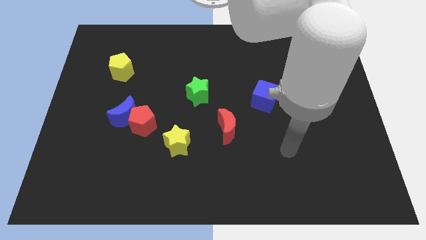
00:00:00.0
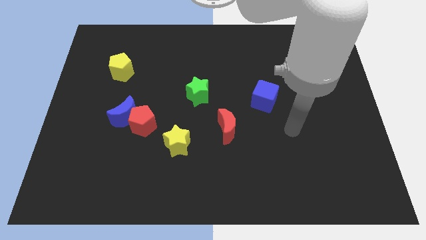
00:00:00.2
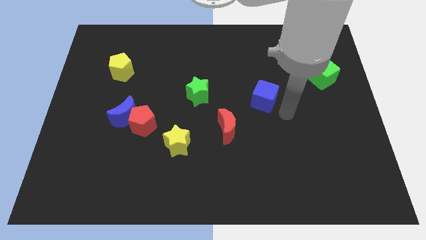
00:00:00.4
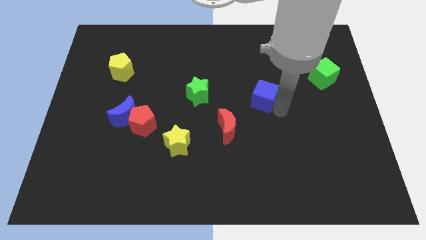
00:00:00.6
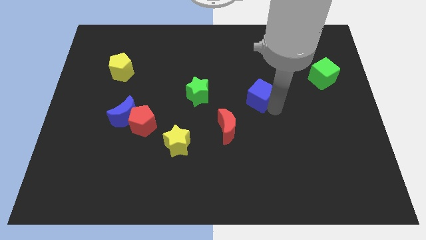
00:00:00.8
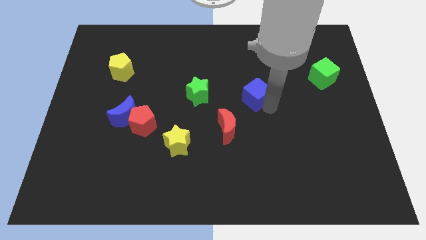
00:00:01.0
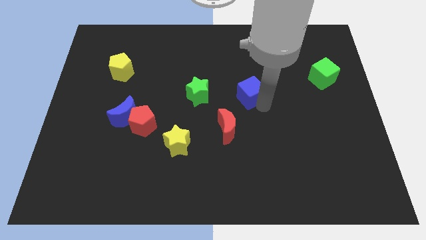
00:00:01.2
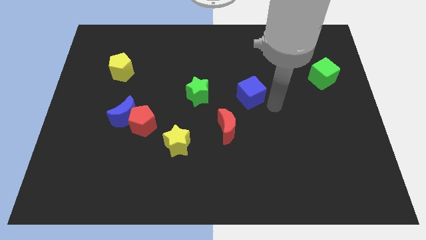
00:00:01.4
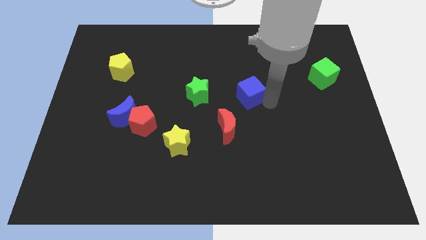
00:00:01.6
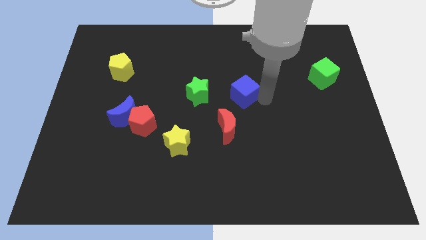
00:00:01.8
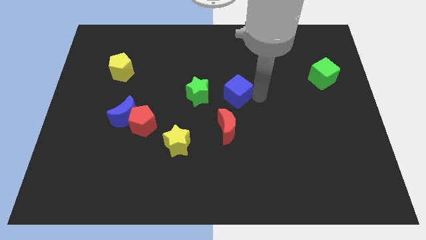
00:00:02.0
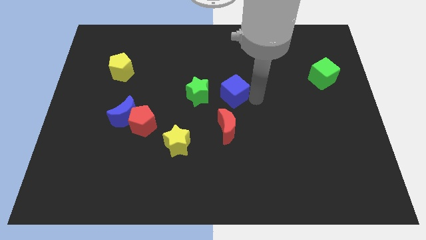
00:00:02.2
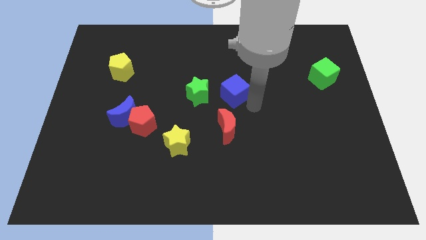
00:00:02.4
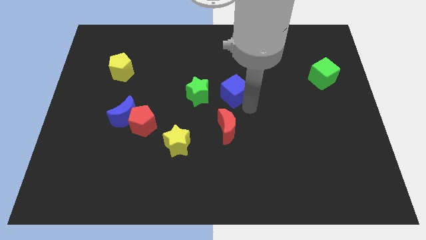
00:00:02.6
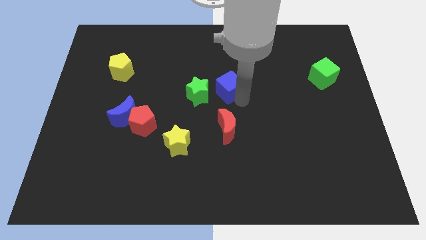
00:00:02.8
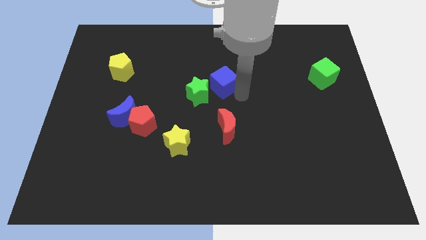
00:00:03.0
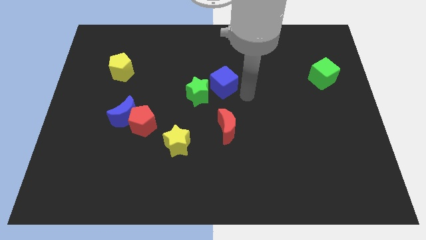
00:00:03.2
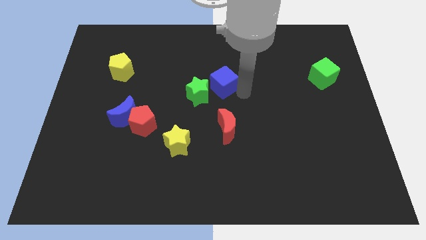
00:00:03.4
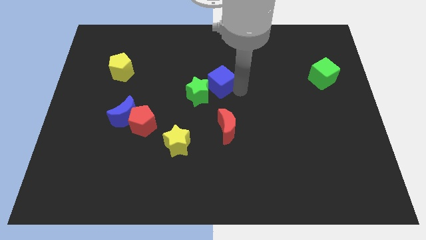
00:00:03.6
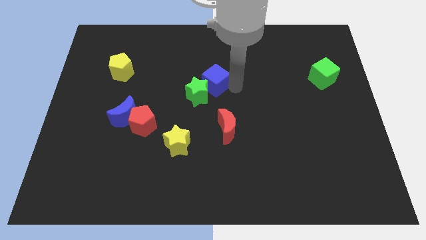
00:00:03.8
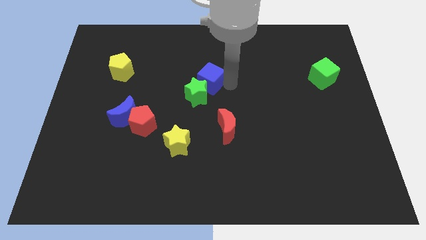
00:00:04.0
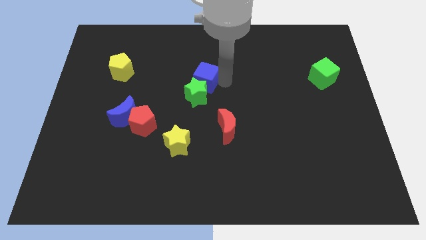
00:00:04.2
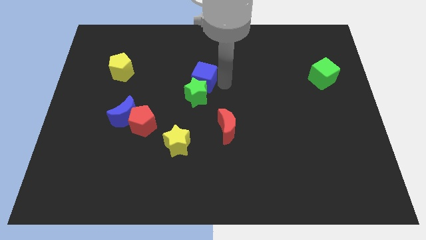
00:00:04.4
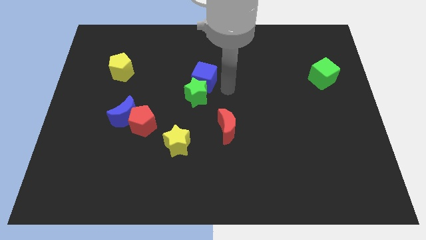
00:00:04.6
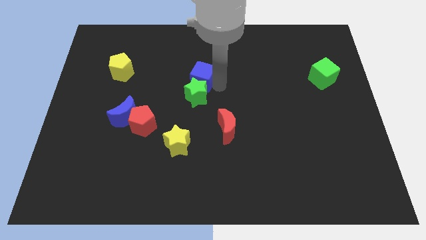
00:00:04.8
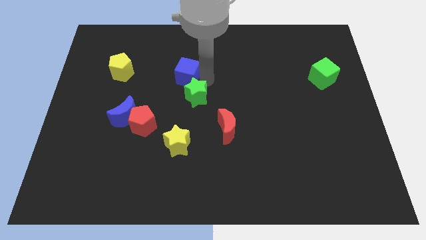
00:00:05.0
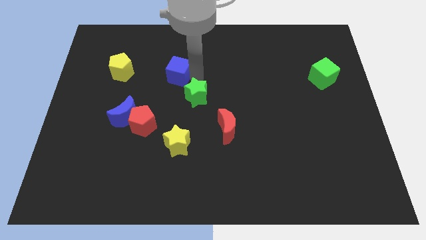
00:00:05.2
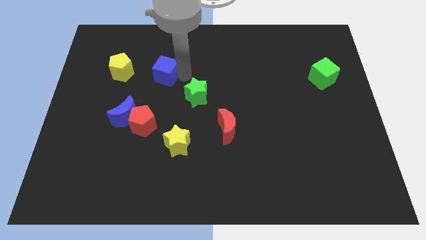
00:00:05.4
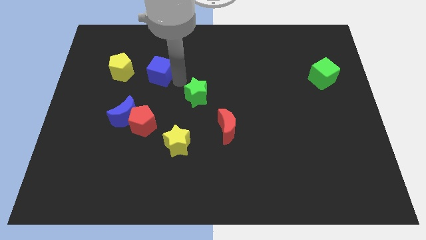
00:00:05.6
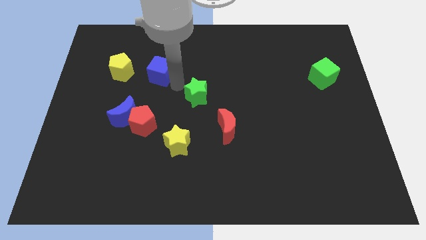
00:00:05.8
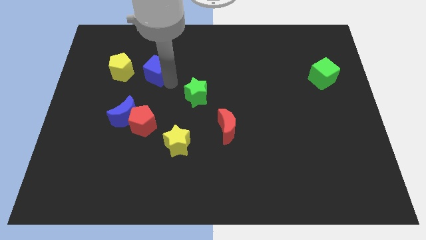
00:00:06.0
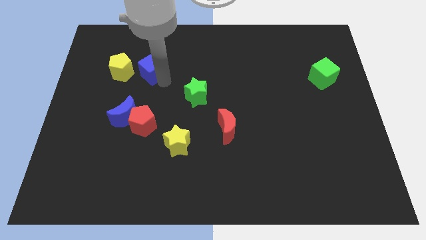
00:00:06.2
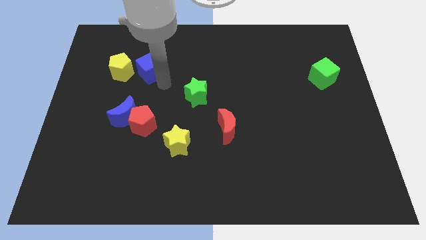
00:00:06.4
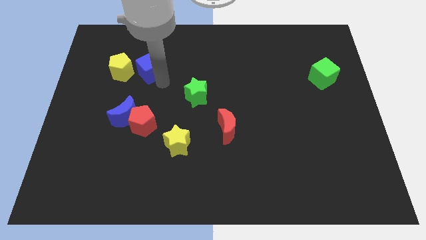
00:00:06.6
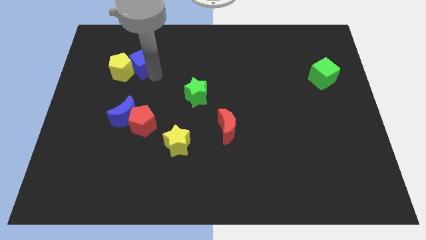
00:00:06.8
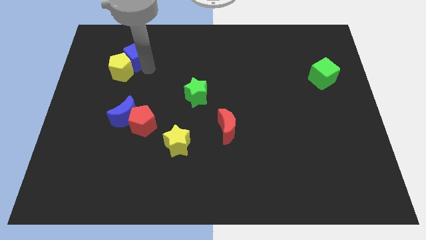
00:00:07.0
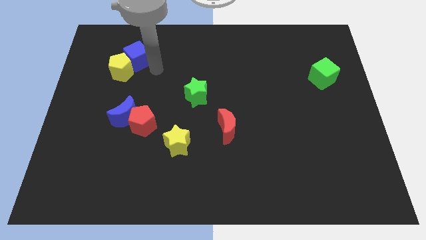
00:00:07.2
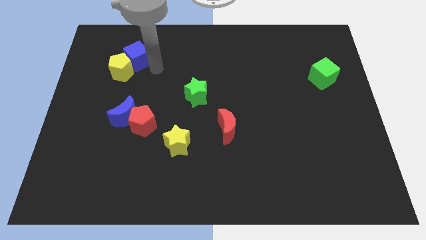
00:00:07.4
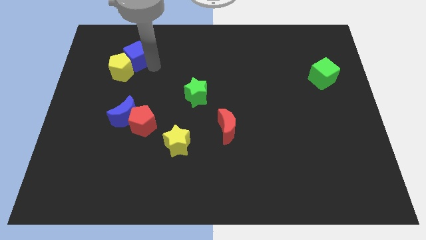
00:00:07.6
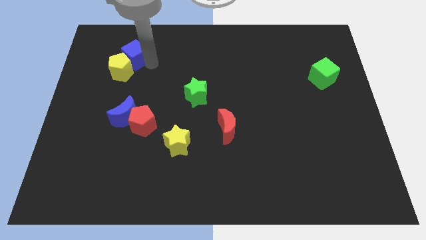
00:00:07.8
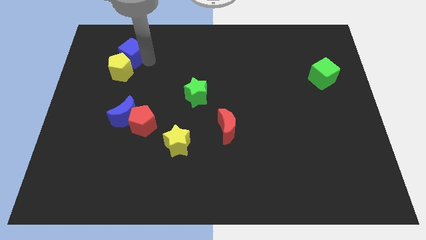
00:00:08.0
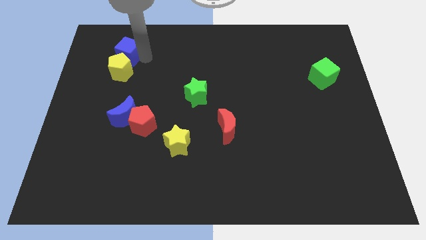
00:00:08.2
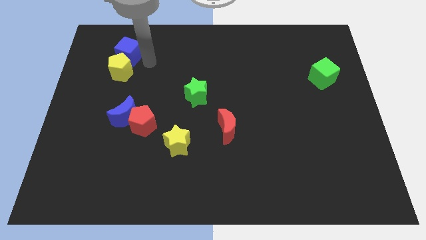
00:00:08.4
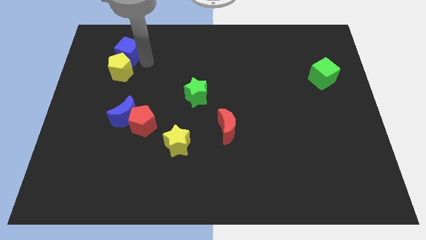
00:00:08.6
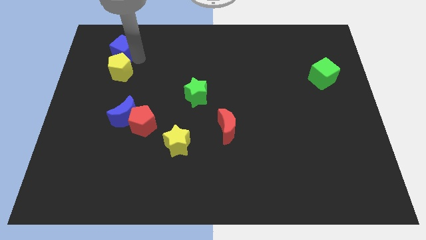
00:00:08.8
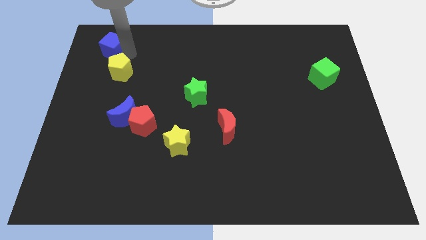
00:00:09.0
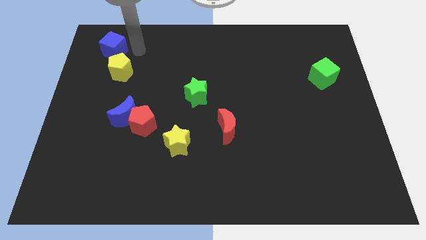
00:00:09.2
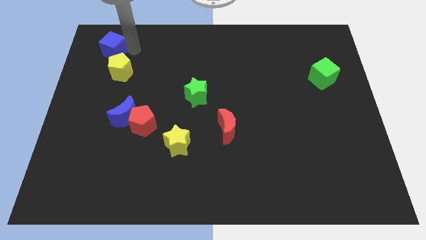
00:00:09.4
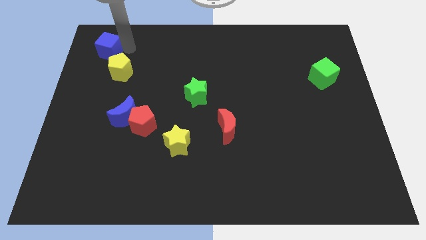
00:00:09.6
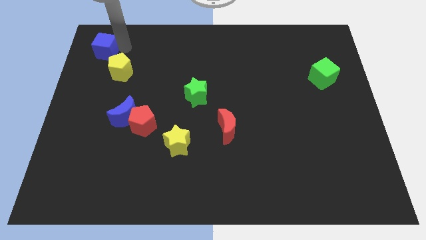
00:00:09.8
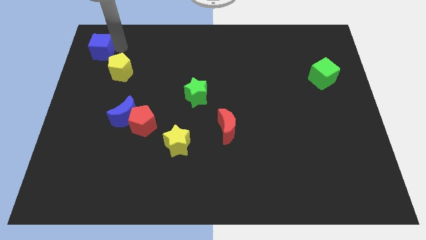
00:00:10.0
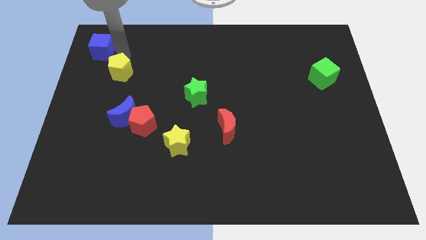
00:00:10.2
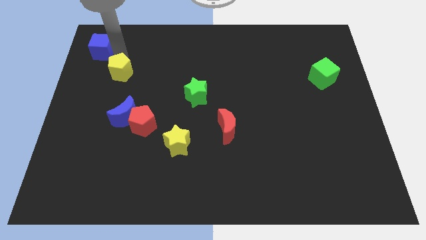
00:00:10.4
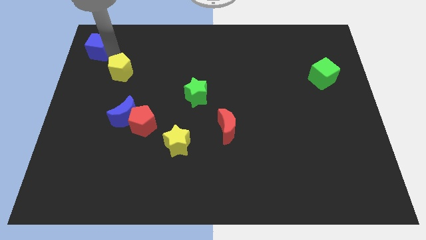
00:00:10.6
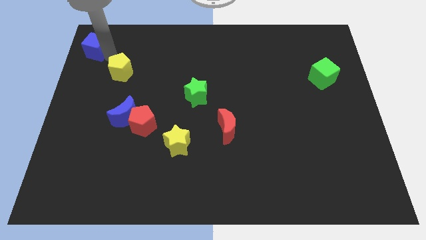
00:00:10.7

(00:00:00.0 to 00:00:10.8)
slide the blue cube to the top left corner
